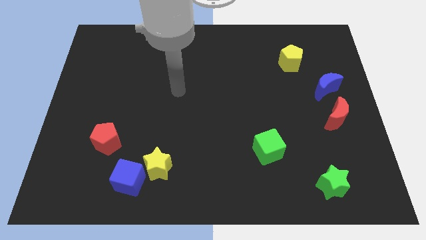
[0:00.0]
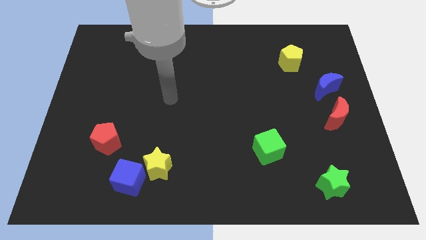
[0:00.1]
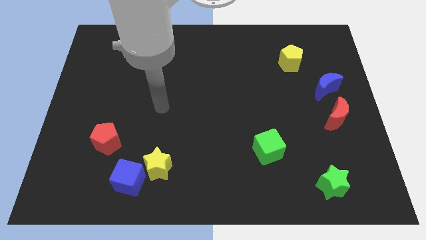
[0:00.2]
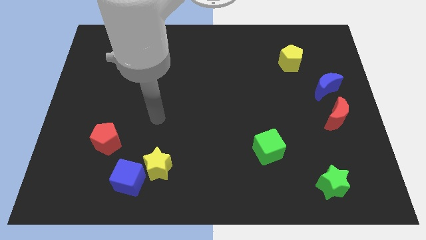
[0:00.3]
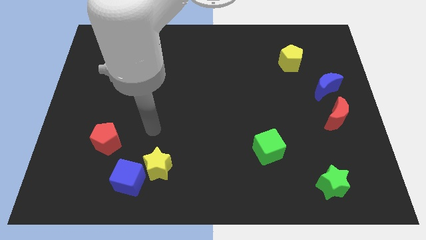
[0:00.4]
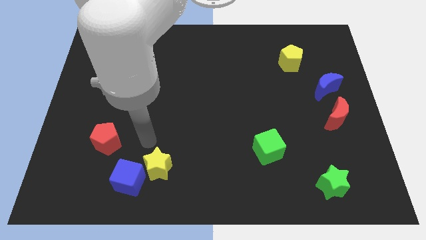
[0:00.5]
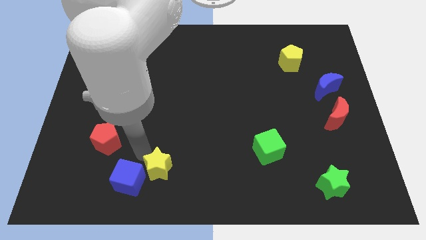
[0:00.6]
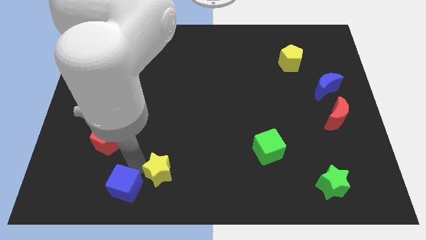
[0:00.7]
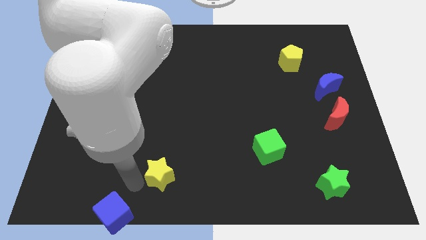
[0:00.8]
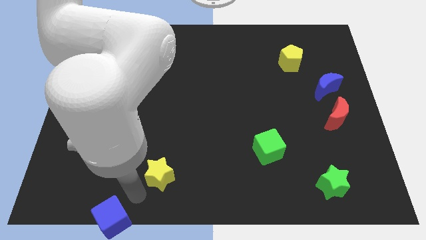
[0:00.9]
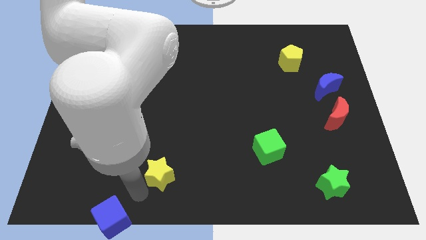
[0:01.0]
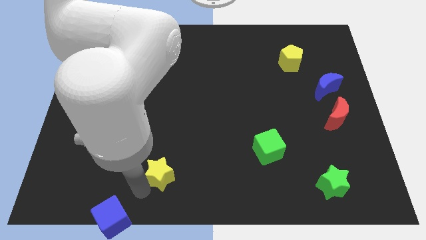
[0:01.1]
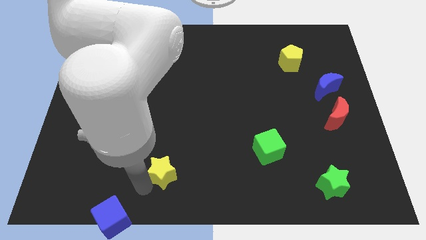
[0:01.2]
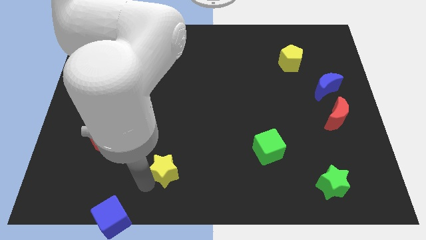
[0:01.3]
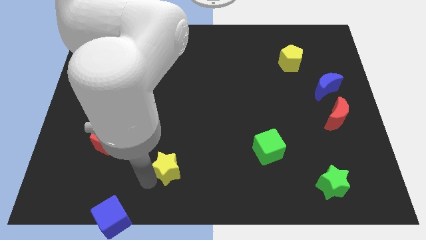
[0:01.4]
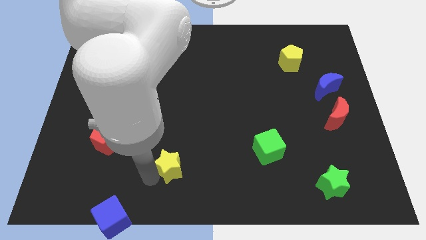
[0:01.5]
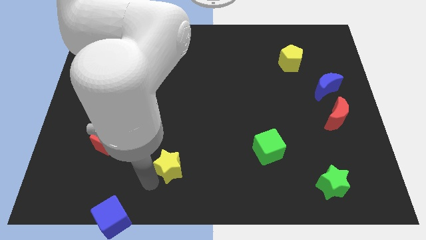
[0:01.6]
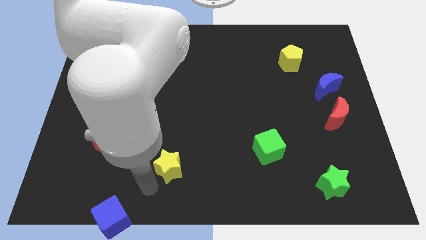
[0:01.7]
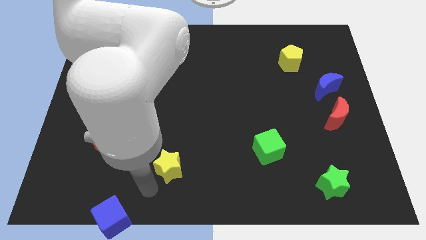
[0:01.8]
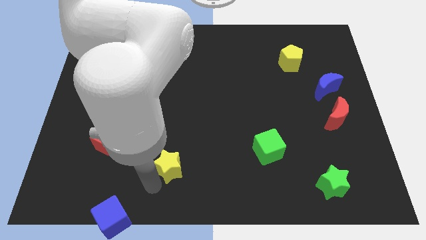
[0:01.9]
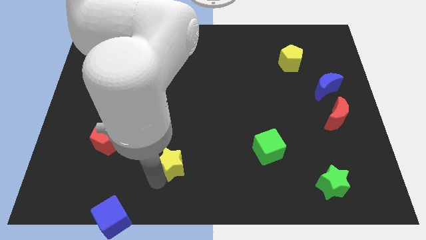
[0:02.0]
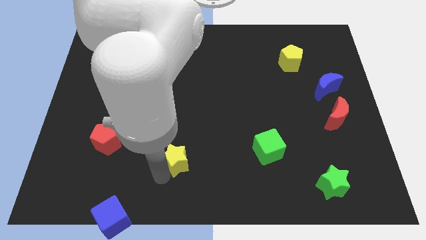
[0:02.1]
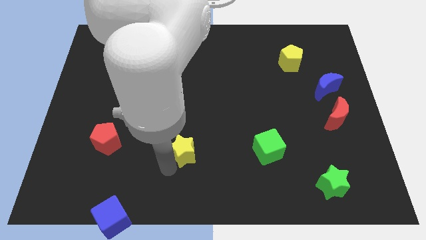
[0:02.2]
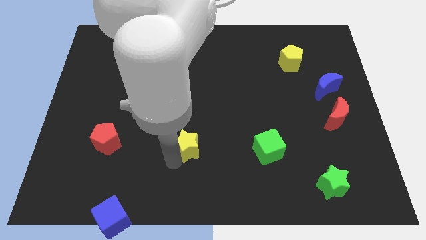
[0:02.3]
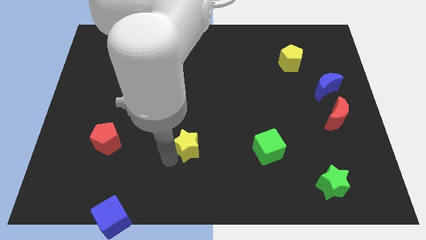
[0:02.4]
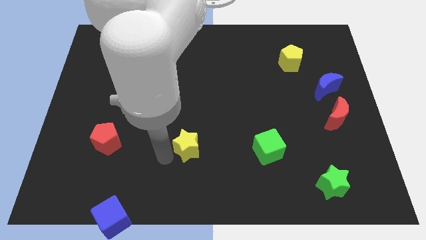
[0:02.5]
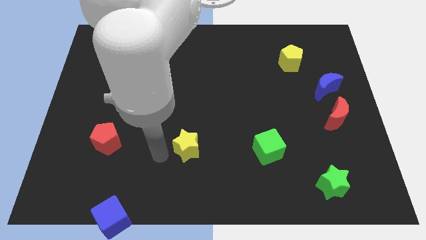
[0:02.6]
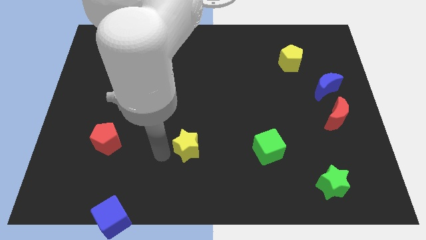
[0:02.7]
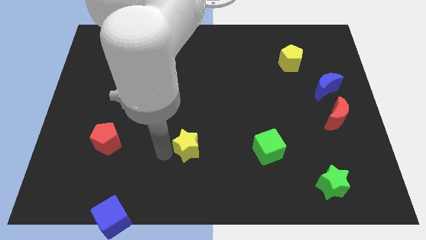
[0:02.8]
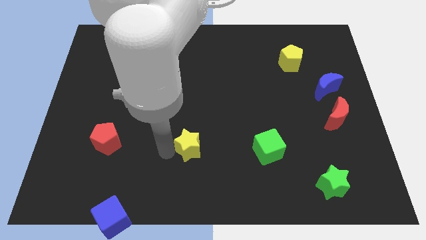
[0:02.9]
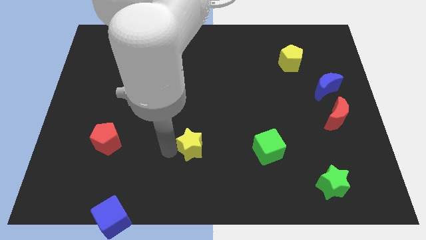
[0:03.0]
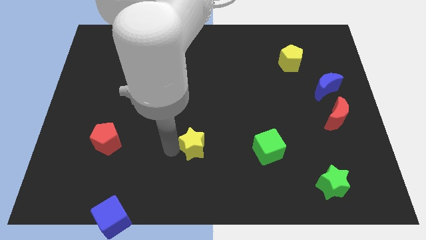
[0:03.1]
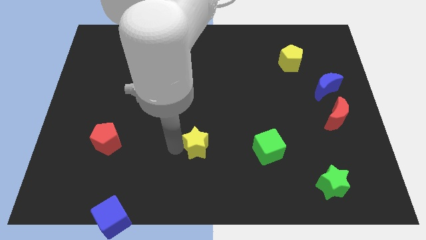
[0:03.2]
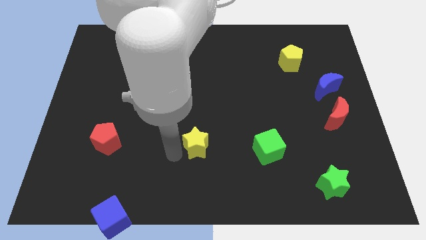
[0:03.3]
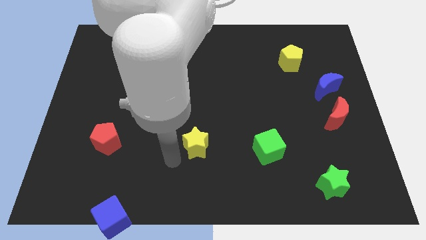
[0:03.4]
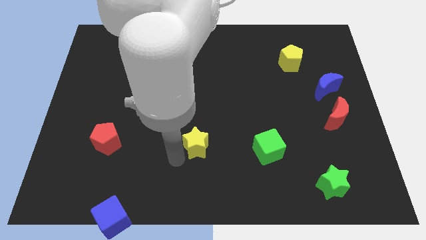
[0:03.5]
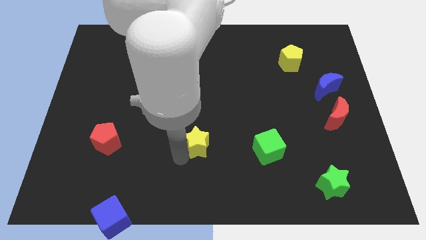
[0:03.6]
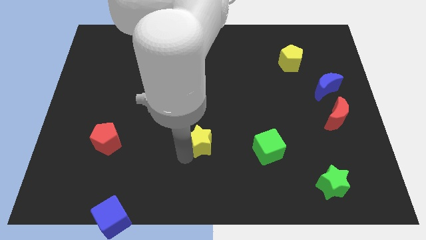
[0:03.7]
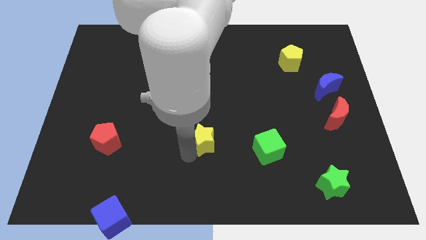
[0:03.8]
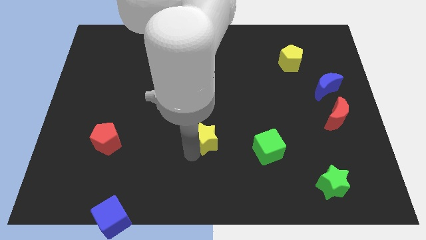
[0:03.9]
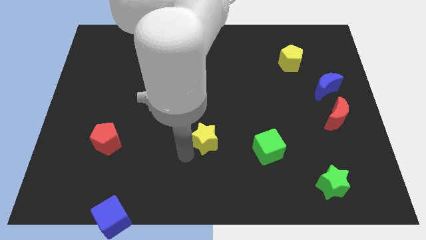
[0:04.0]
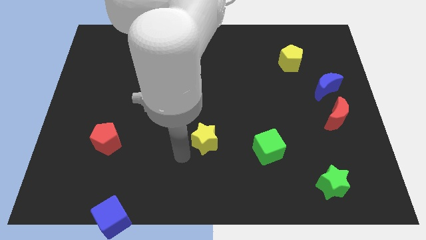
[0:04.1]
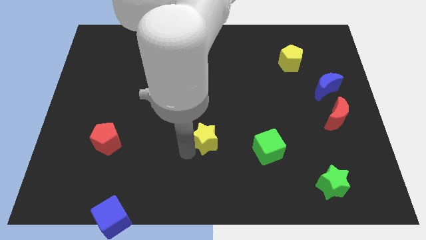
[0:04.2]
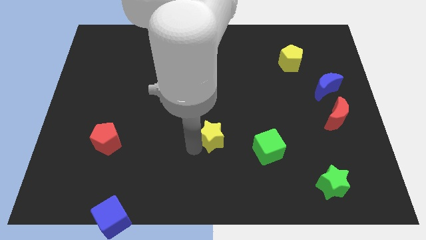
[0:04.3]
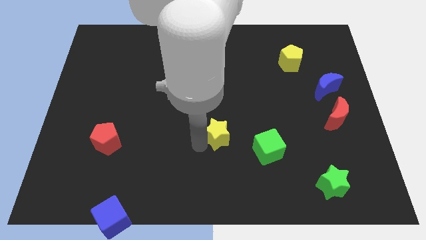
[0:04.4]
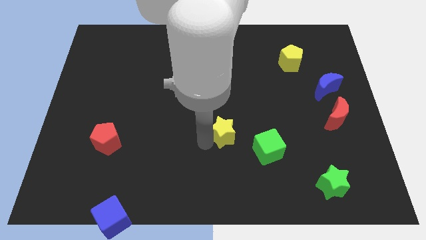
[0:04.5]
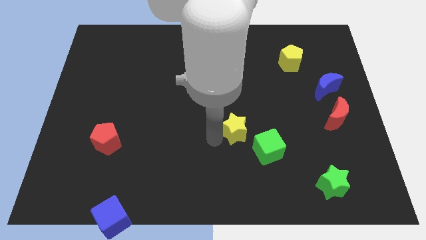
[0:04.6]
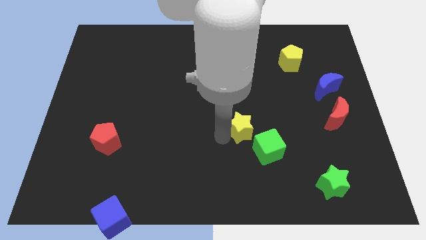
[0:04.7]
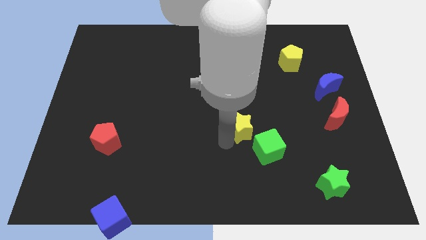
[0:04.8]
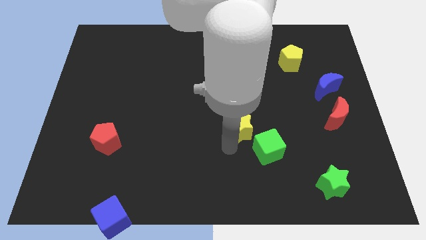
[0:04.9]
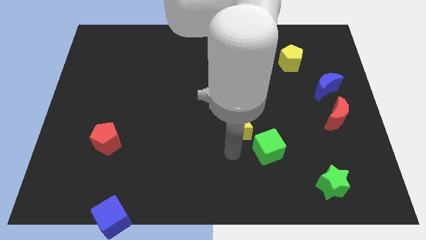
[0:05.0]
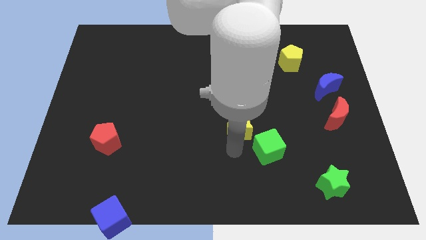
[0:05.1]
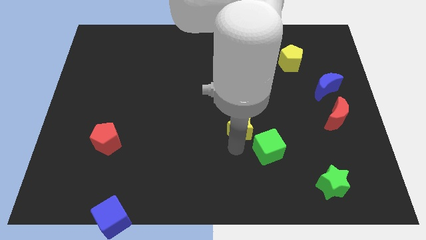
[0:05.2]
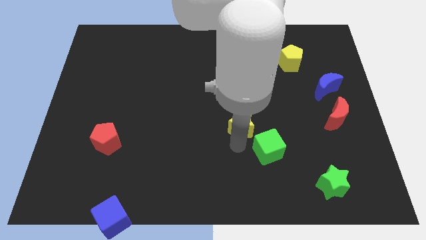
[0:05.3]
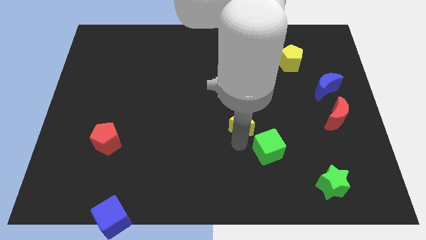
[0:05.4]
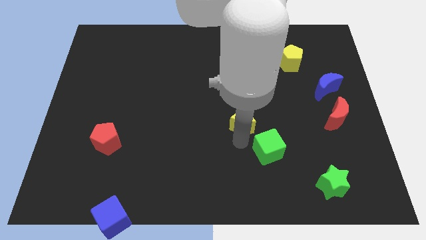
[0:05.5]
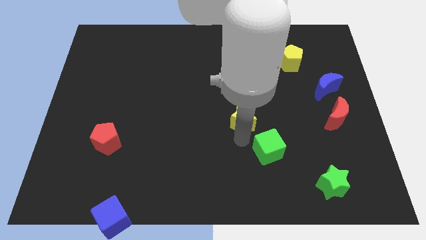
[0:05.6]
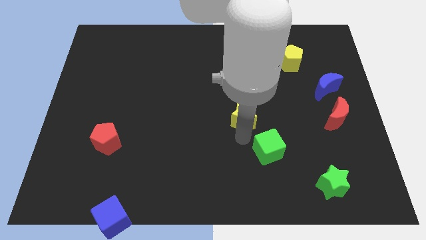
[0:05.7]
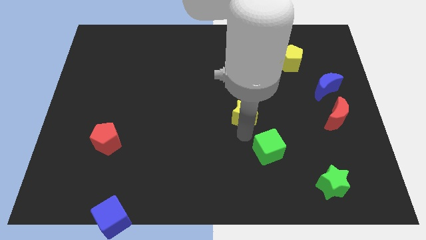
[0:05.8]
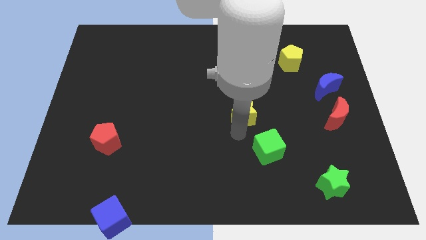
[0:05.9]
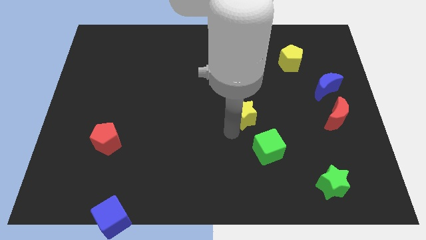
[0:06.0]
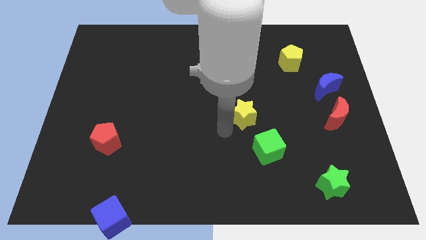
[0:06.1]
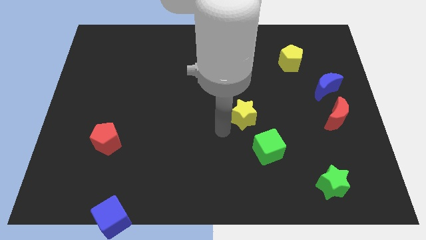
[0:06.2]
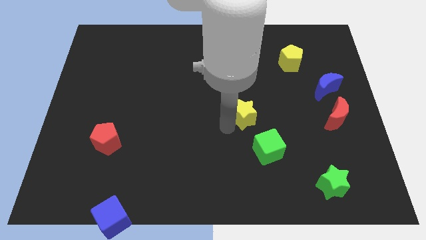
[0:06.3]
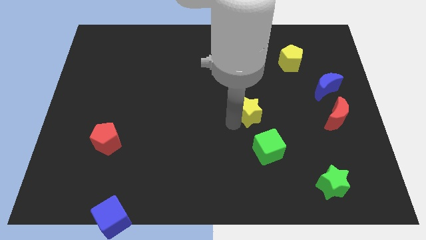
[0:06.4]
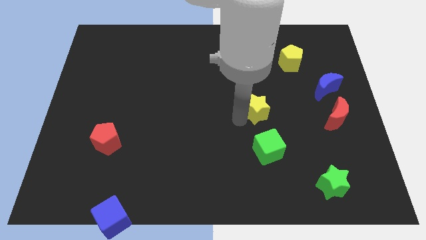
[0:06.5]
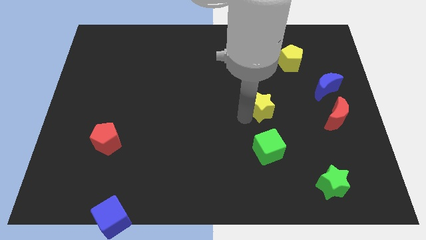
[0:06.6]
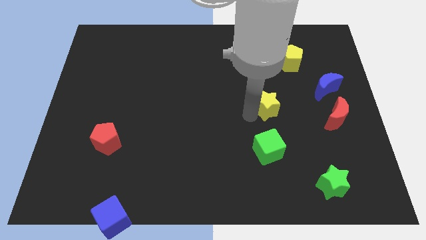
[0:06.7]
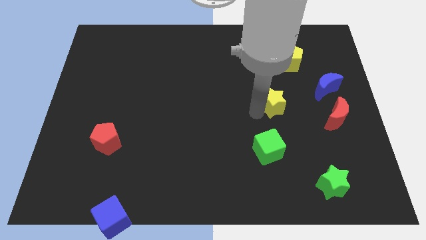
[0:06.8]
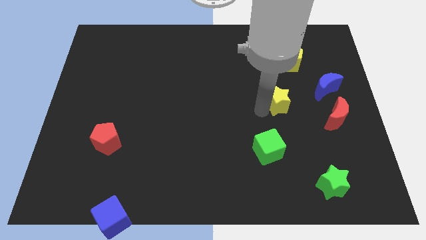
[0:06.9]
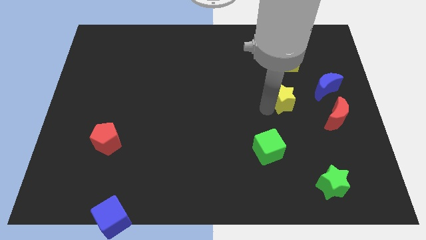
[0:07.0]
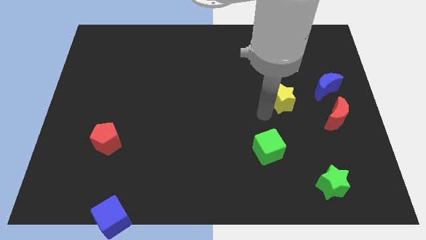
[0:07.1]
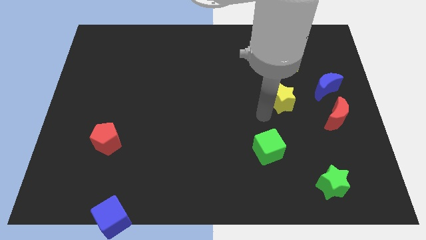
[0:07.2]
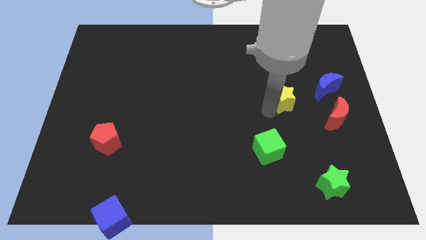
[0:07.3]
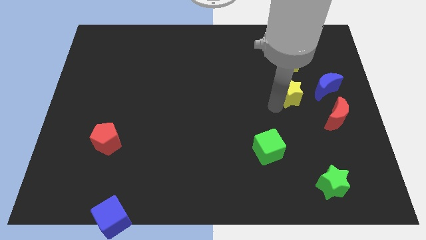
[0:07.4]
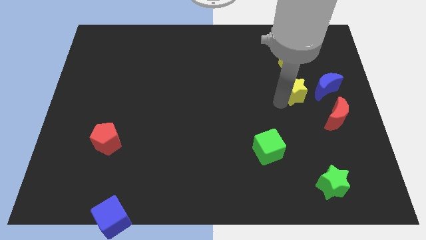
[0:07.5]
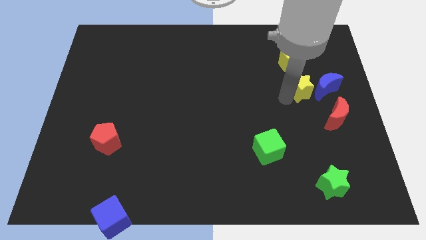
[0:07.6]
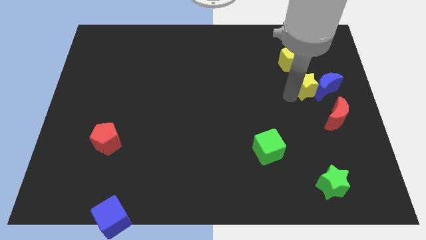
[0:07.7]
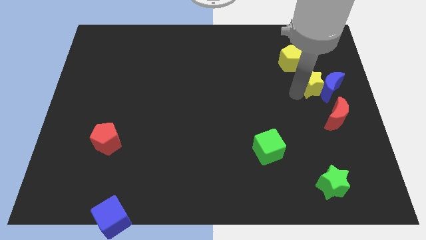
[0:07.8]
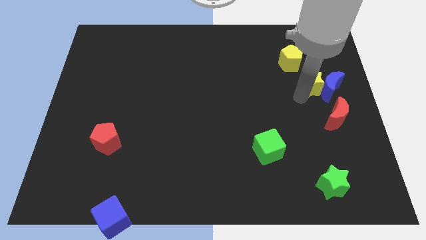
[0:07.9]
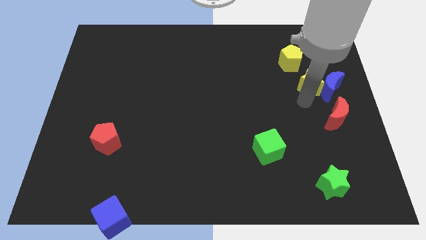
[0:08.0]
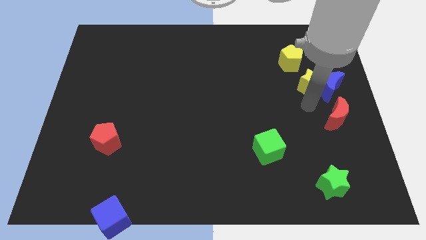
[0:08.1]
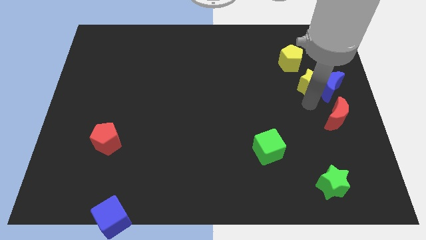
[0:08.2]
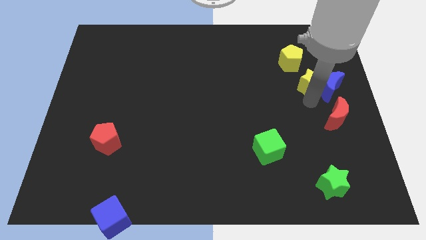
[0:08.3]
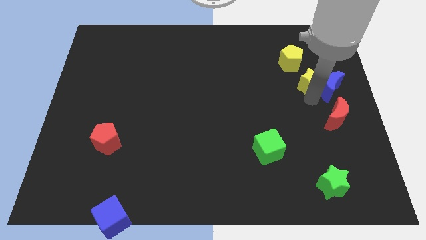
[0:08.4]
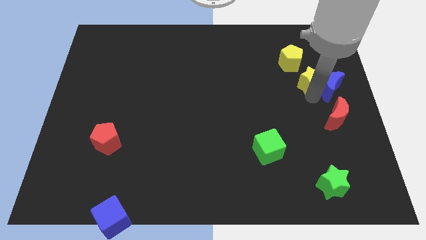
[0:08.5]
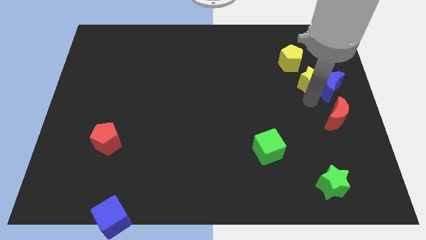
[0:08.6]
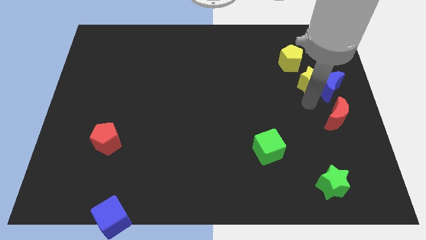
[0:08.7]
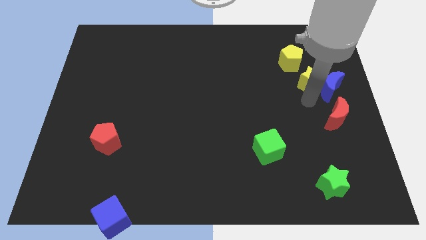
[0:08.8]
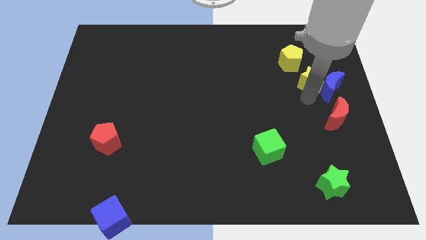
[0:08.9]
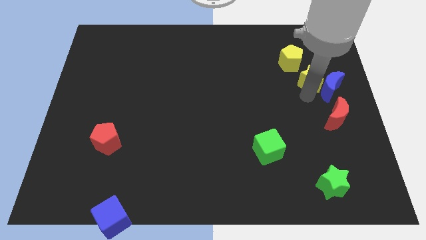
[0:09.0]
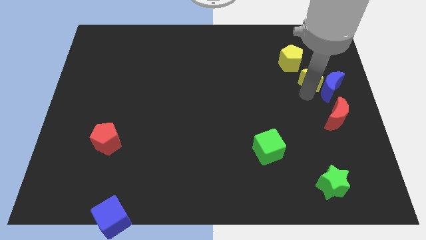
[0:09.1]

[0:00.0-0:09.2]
slide the yellow star to the top side of the blue moon
